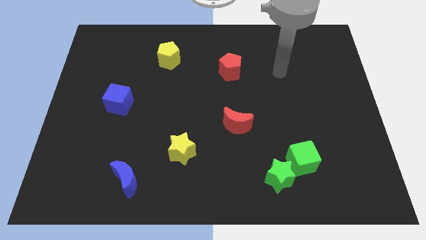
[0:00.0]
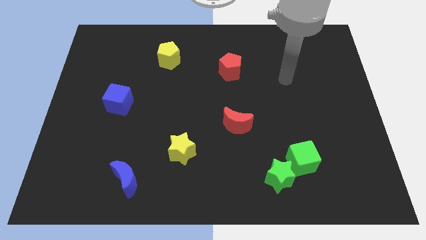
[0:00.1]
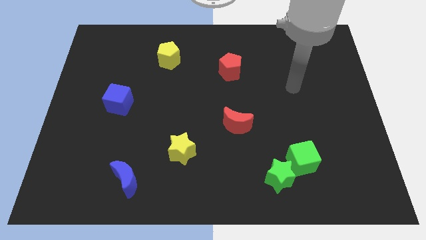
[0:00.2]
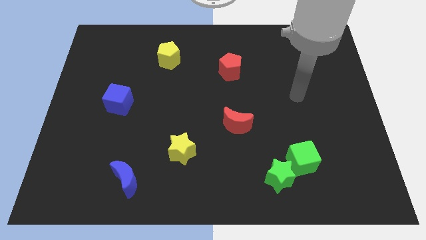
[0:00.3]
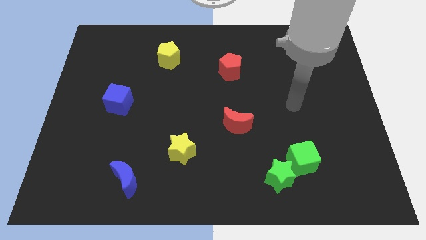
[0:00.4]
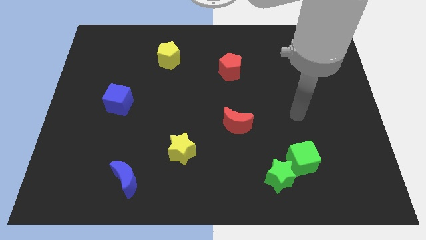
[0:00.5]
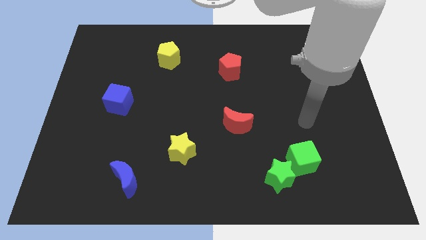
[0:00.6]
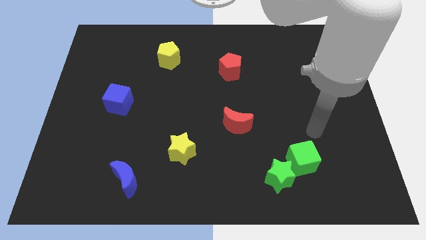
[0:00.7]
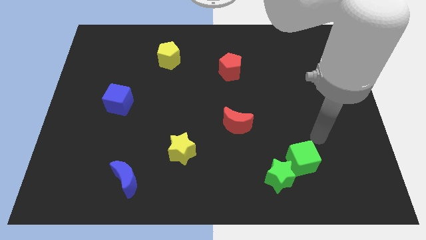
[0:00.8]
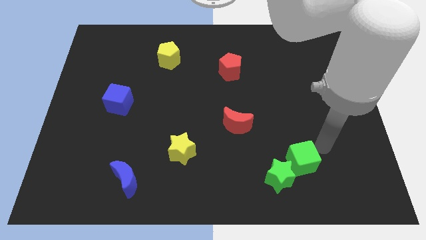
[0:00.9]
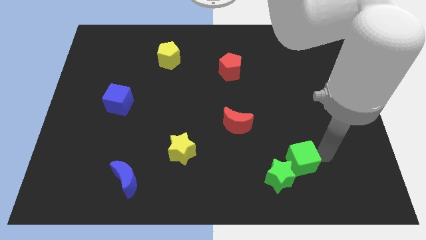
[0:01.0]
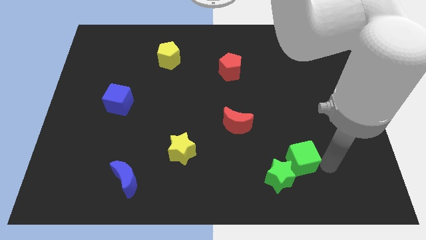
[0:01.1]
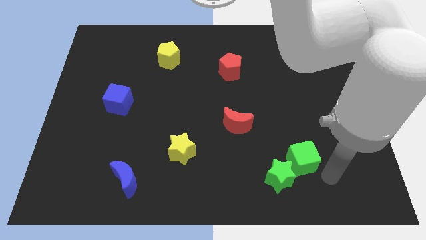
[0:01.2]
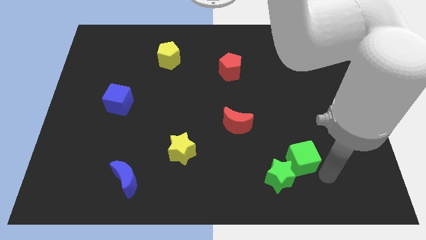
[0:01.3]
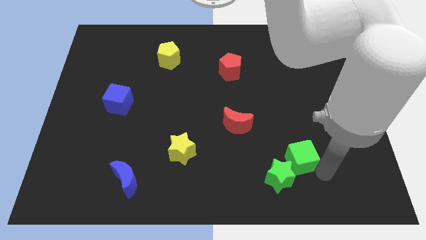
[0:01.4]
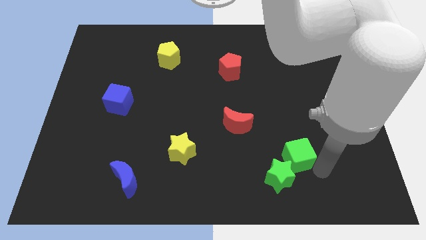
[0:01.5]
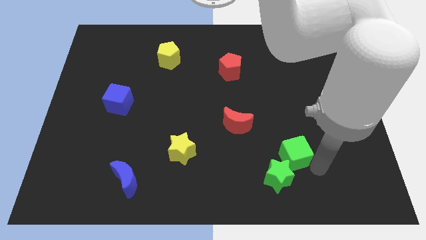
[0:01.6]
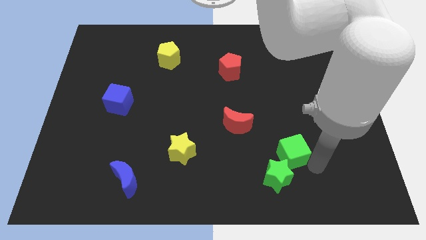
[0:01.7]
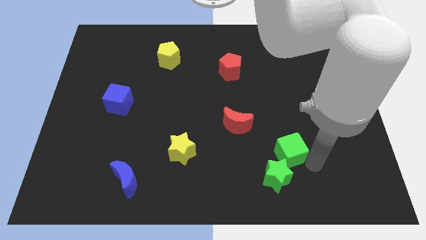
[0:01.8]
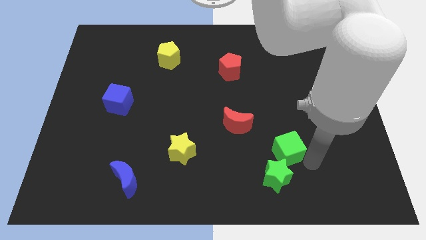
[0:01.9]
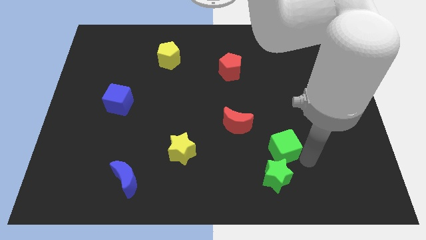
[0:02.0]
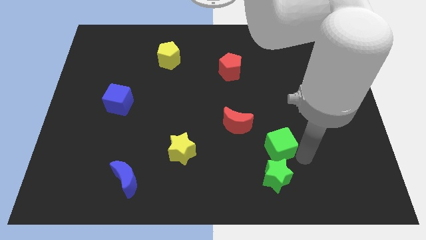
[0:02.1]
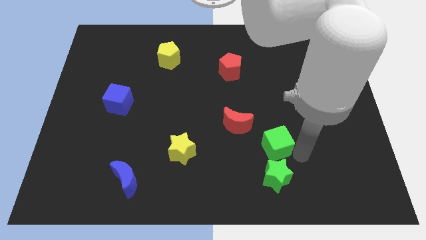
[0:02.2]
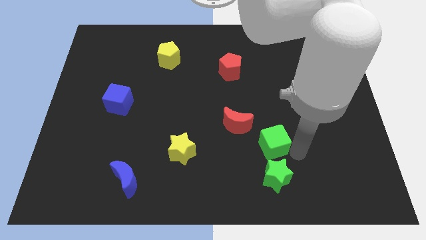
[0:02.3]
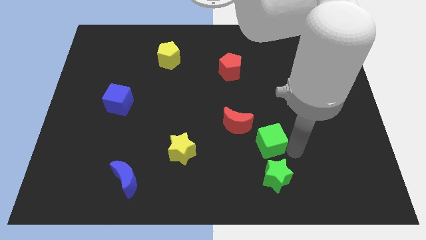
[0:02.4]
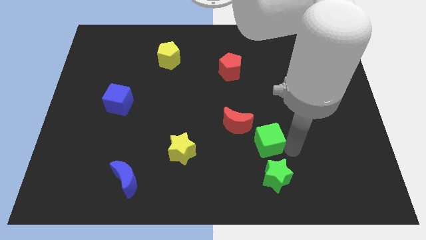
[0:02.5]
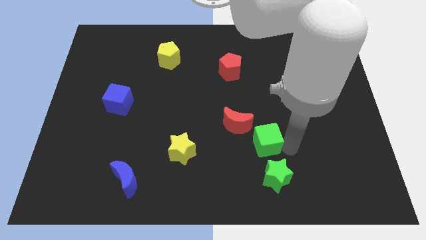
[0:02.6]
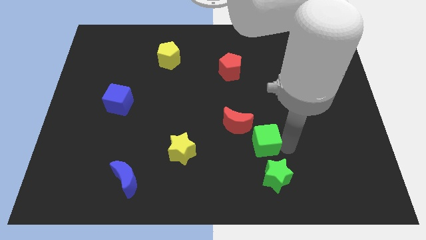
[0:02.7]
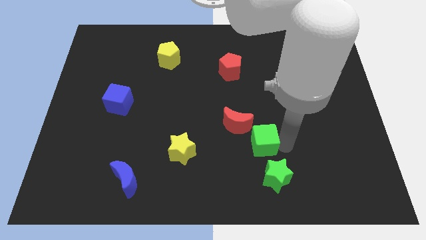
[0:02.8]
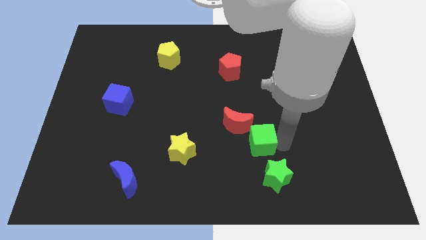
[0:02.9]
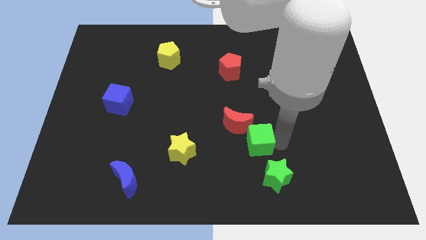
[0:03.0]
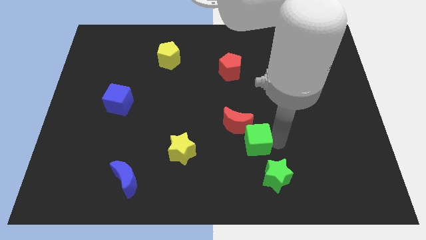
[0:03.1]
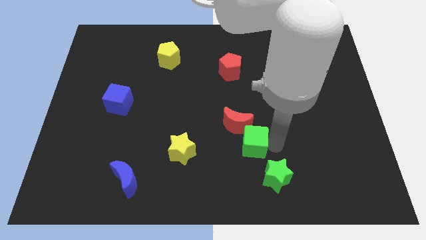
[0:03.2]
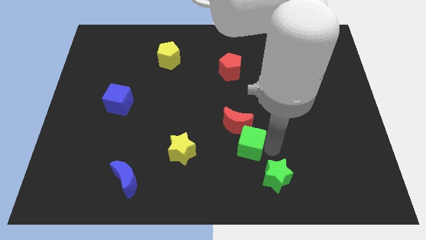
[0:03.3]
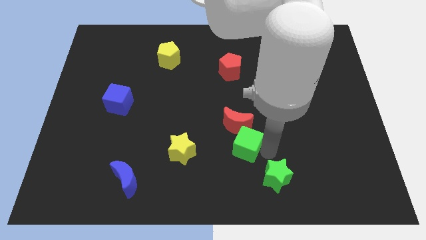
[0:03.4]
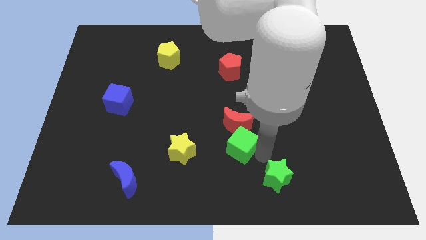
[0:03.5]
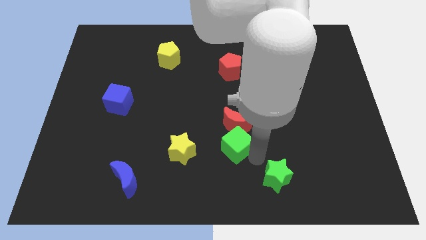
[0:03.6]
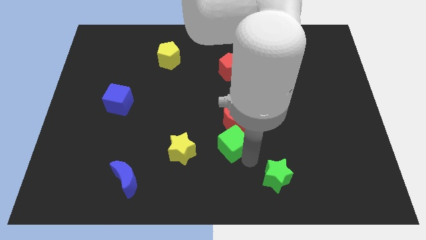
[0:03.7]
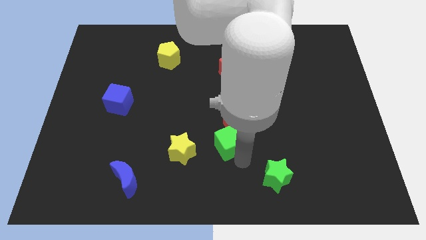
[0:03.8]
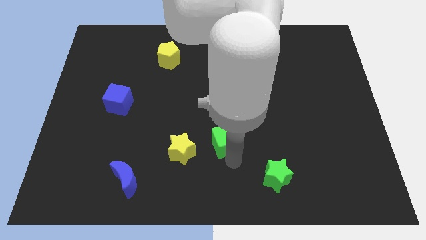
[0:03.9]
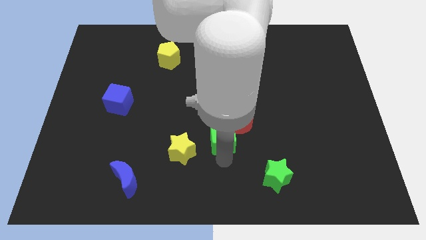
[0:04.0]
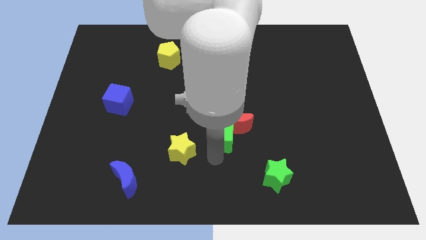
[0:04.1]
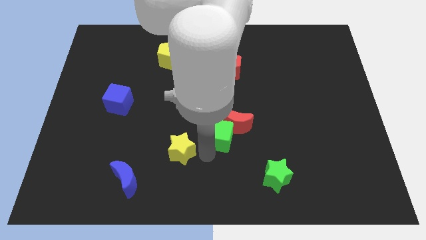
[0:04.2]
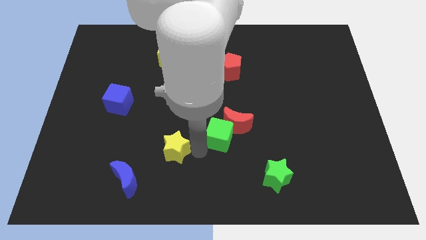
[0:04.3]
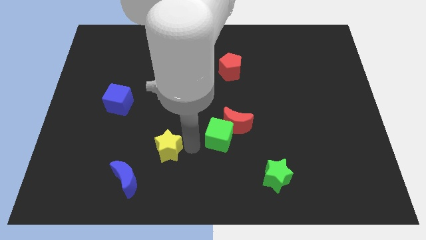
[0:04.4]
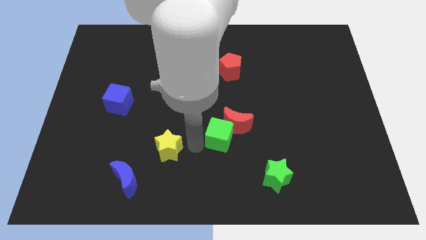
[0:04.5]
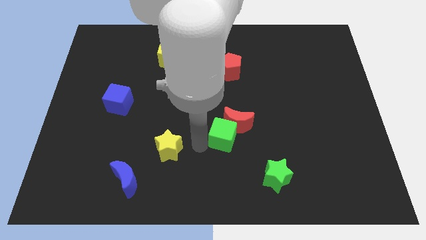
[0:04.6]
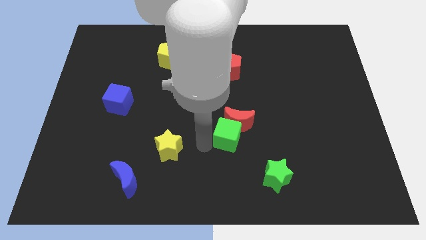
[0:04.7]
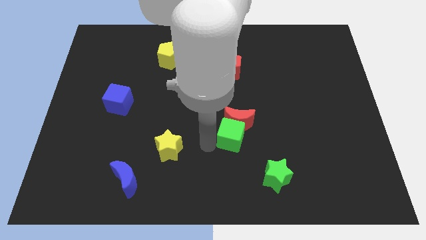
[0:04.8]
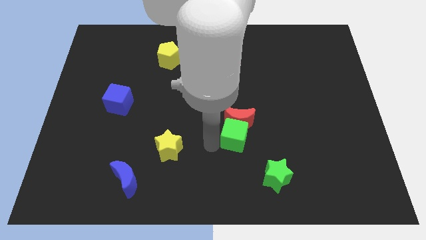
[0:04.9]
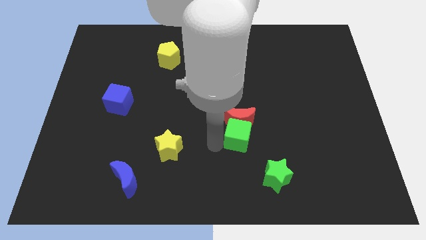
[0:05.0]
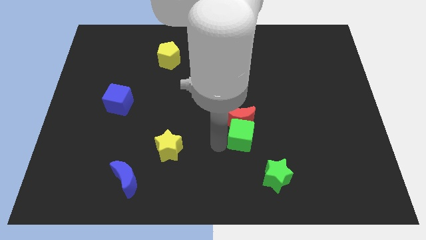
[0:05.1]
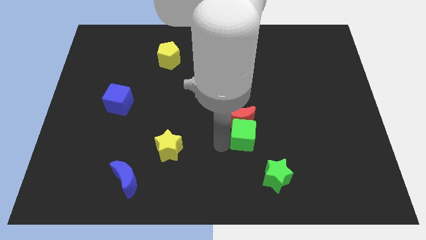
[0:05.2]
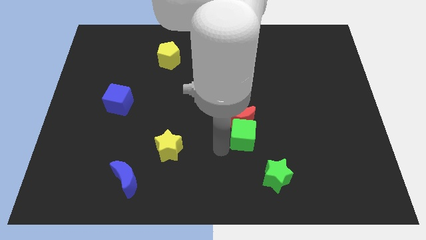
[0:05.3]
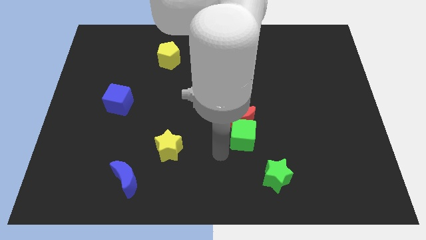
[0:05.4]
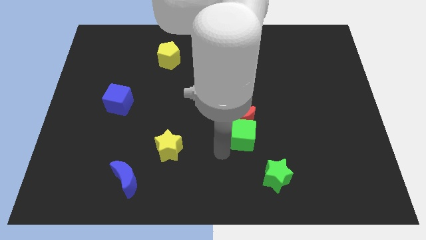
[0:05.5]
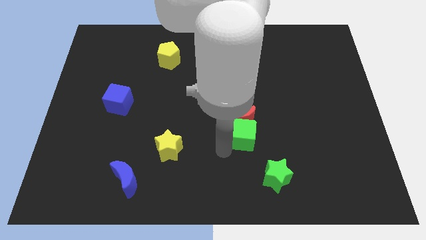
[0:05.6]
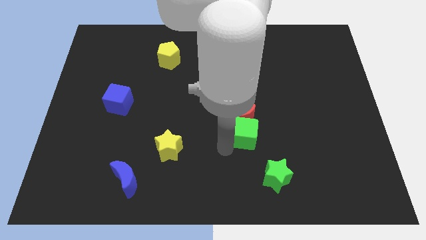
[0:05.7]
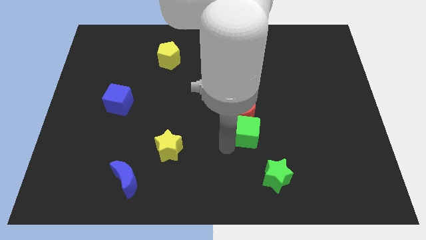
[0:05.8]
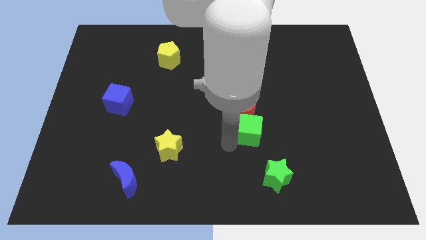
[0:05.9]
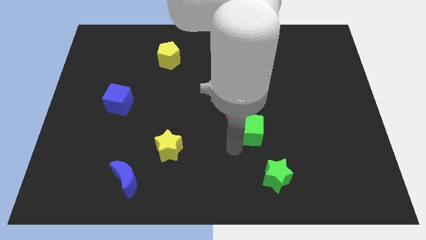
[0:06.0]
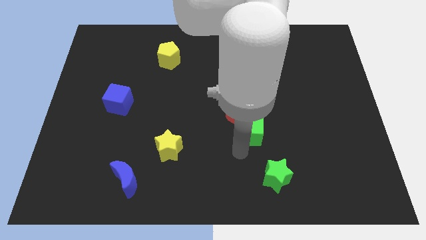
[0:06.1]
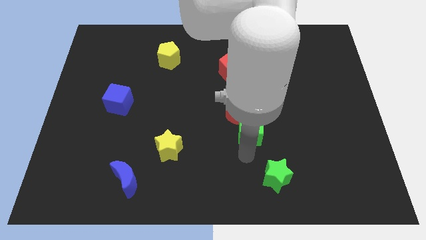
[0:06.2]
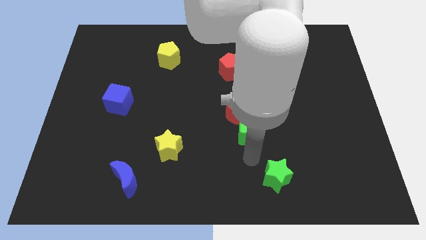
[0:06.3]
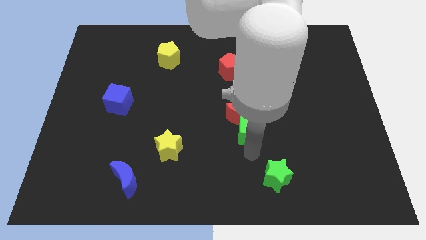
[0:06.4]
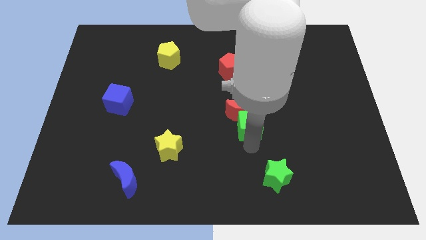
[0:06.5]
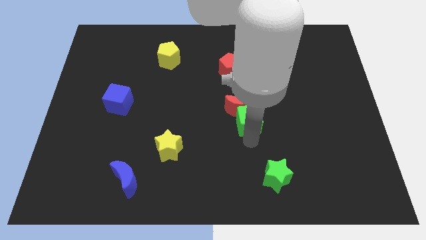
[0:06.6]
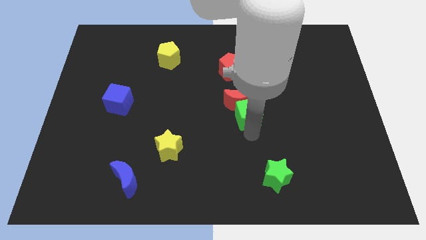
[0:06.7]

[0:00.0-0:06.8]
put the green cube to the bottom side of the red pentagon

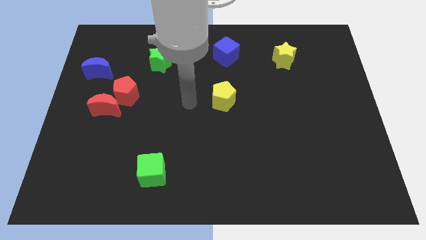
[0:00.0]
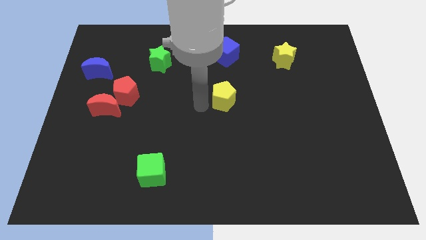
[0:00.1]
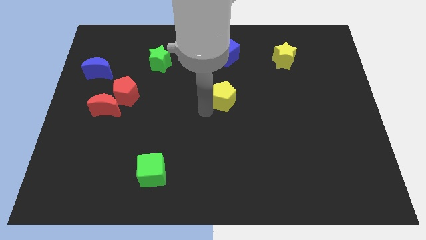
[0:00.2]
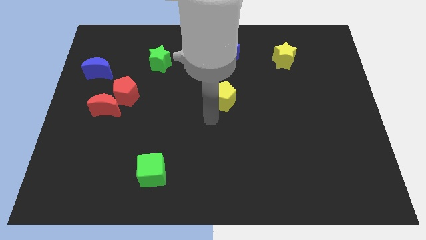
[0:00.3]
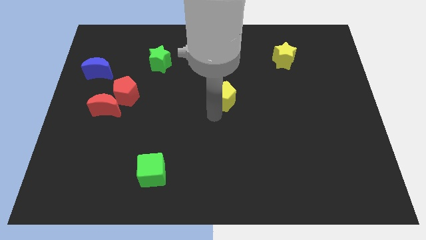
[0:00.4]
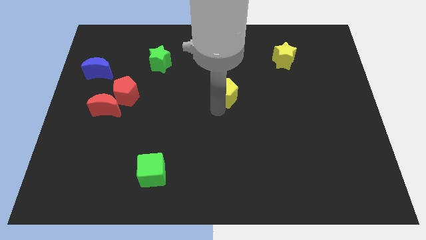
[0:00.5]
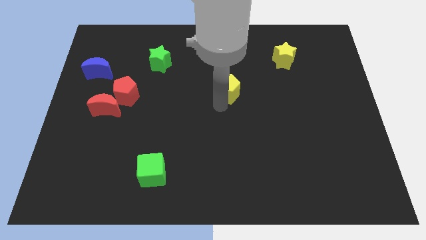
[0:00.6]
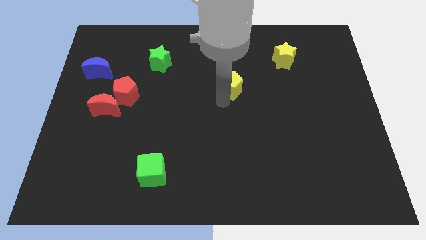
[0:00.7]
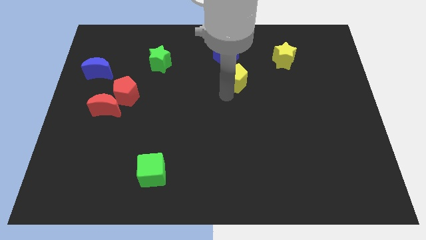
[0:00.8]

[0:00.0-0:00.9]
move the yellow pentagon diagonally down and to the right of the blue cube

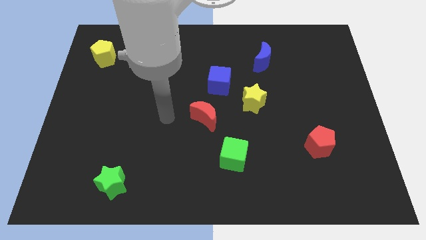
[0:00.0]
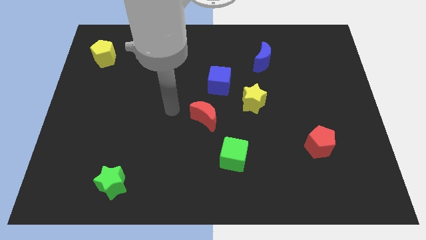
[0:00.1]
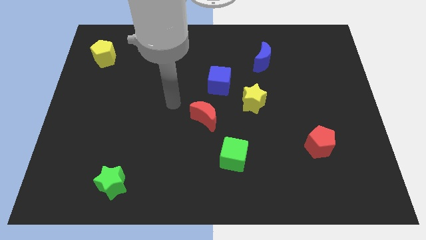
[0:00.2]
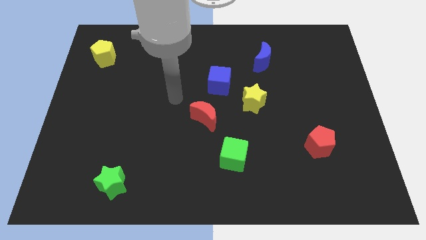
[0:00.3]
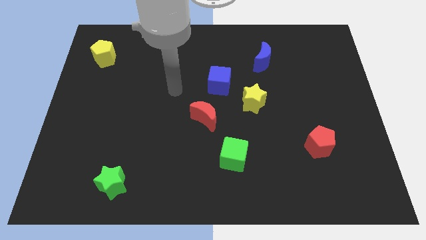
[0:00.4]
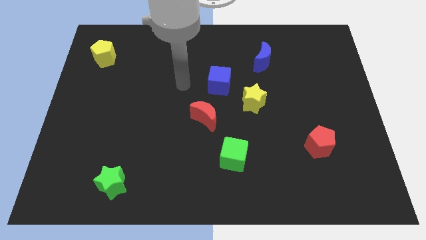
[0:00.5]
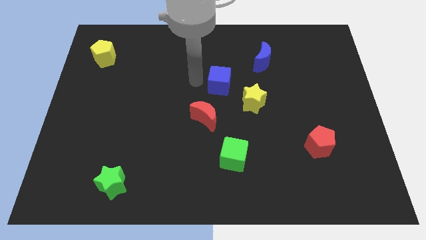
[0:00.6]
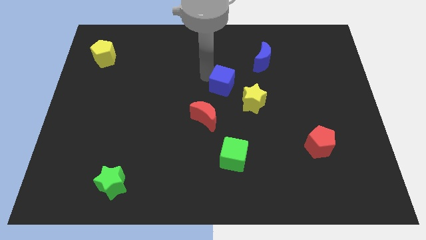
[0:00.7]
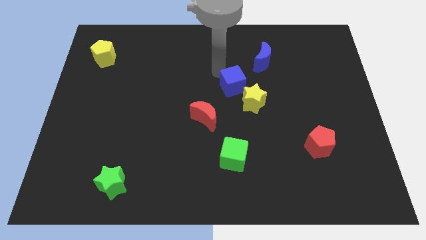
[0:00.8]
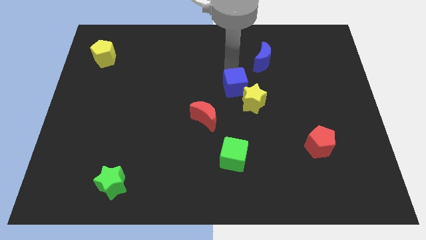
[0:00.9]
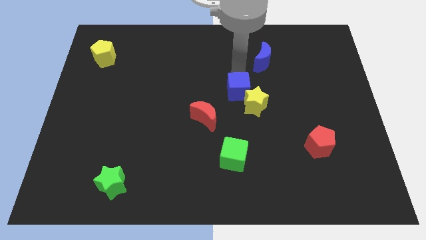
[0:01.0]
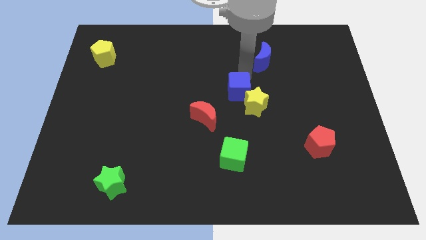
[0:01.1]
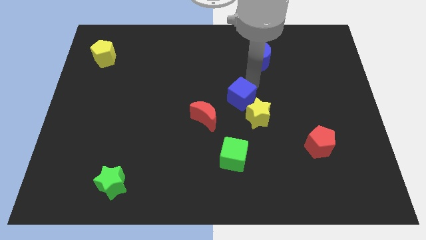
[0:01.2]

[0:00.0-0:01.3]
push the yellow star diagonally up and to the right of the green cube
